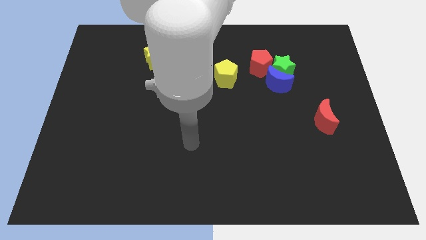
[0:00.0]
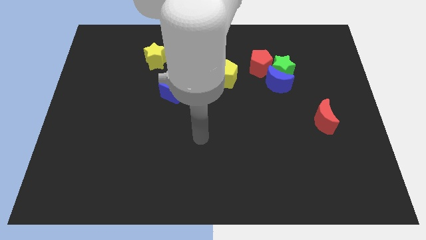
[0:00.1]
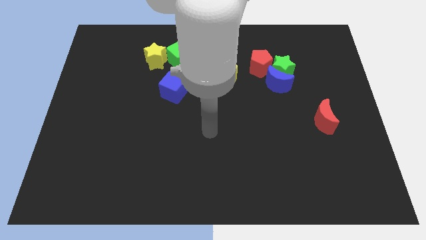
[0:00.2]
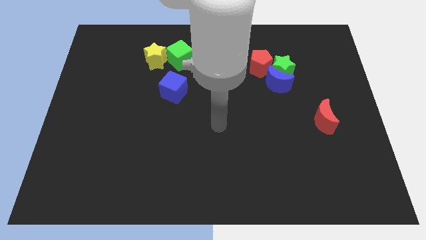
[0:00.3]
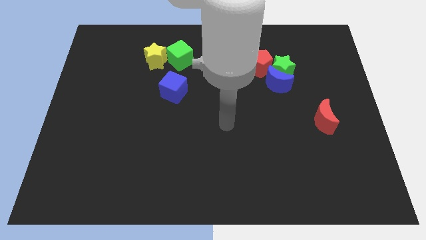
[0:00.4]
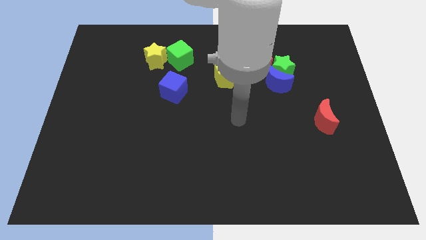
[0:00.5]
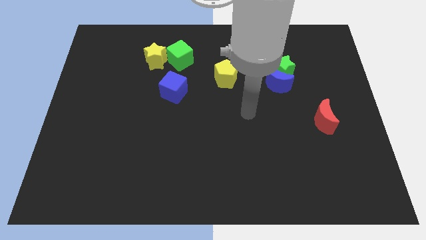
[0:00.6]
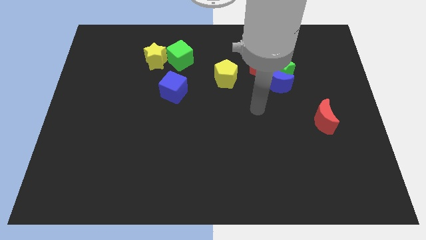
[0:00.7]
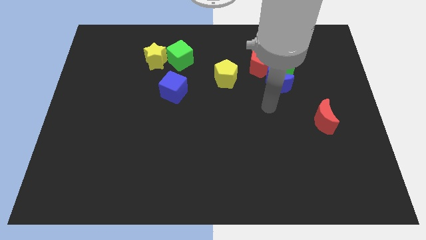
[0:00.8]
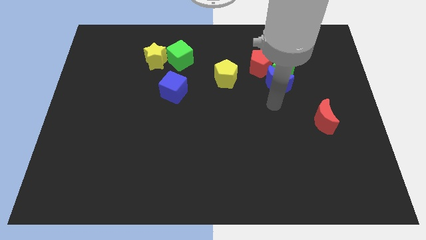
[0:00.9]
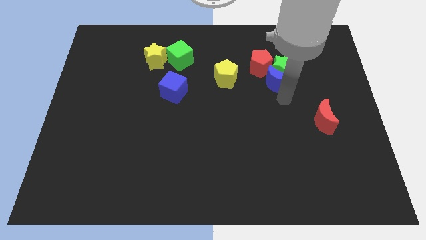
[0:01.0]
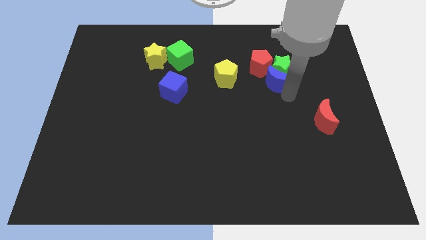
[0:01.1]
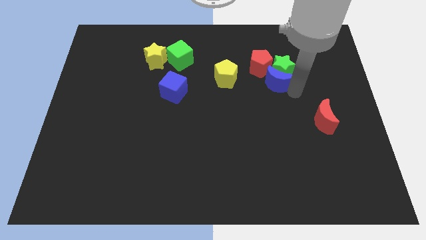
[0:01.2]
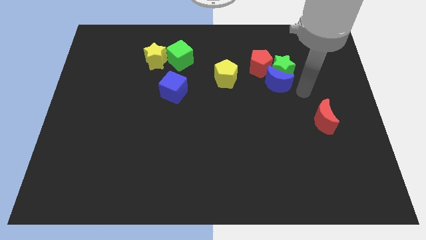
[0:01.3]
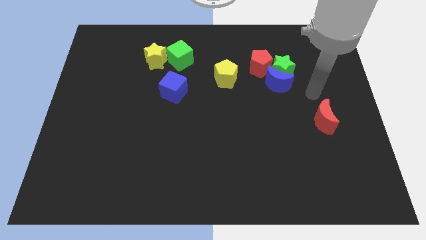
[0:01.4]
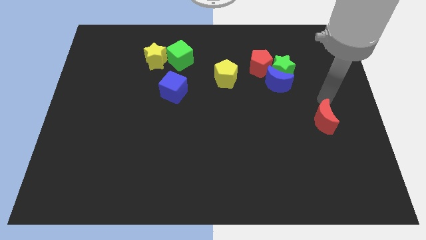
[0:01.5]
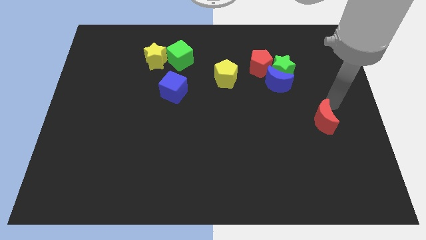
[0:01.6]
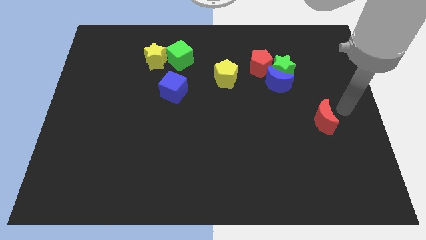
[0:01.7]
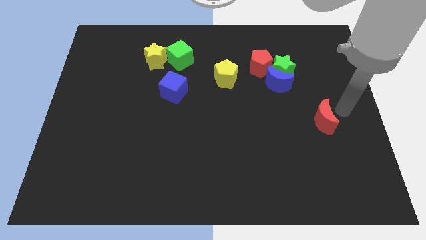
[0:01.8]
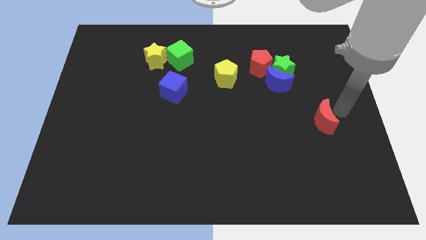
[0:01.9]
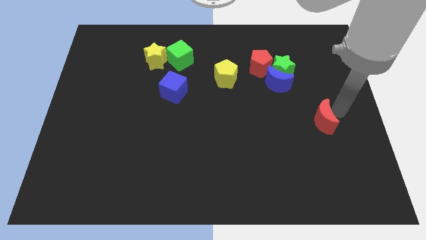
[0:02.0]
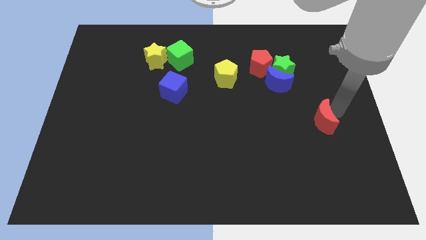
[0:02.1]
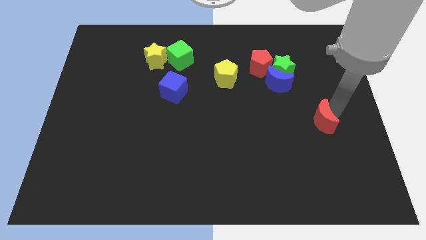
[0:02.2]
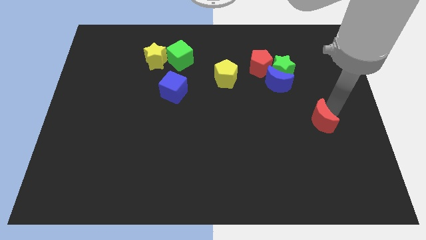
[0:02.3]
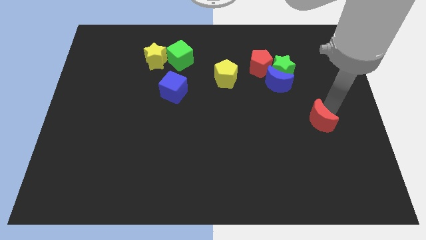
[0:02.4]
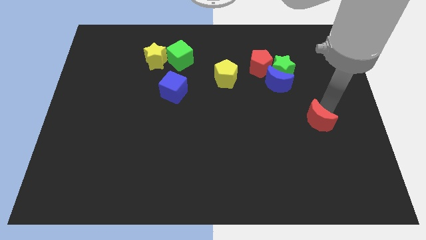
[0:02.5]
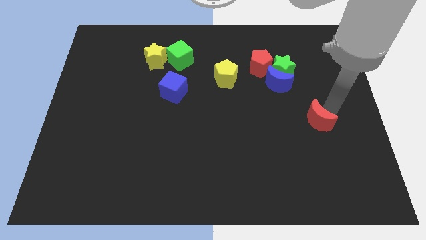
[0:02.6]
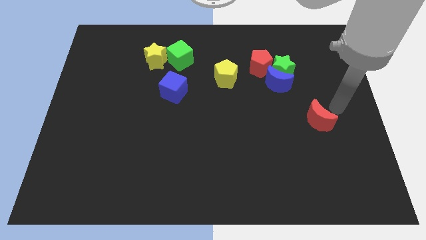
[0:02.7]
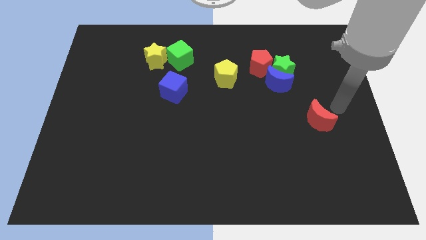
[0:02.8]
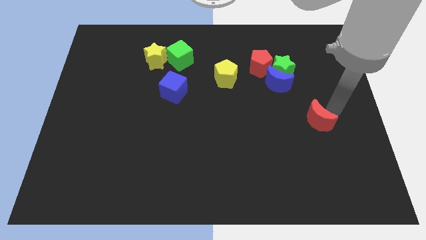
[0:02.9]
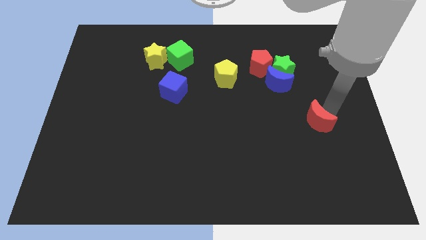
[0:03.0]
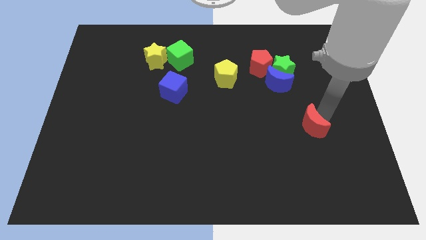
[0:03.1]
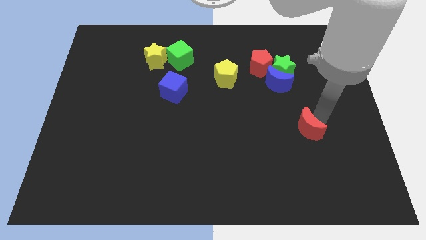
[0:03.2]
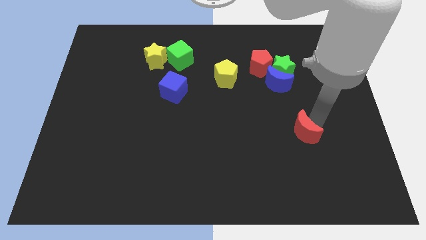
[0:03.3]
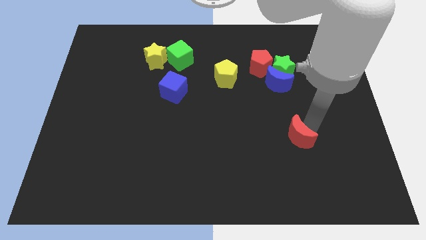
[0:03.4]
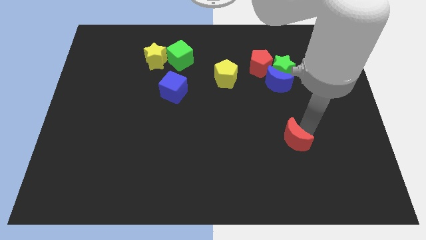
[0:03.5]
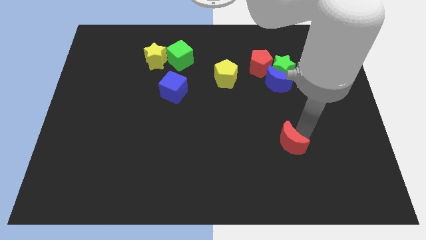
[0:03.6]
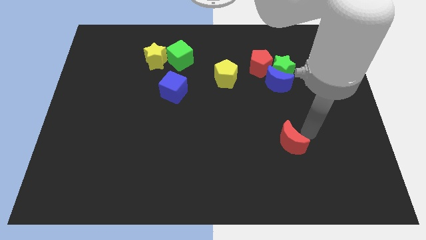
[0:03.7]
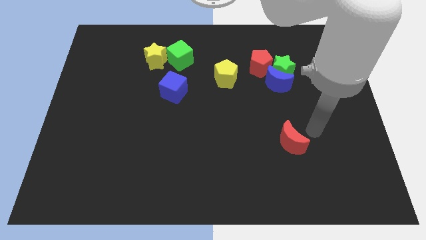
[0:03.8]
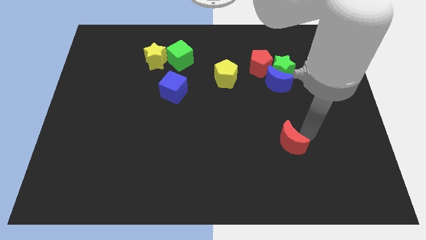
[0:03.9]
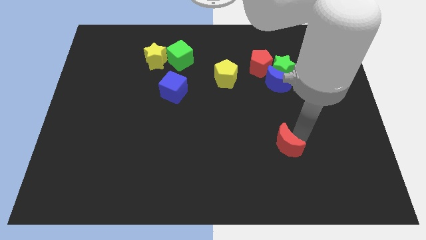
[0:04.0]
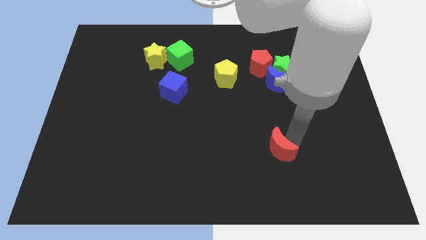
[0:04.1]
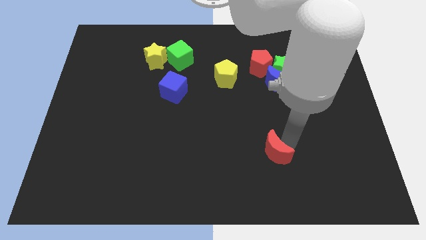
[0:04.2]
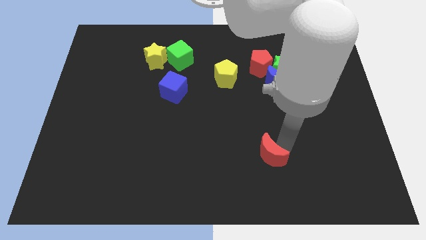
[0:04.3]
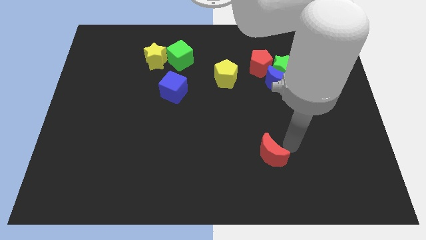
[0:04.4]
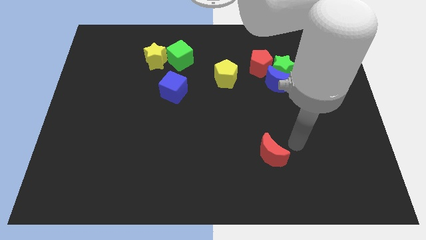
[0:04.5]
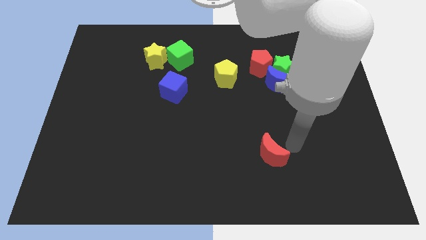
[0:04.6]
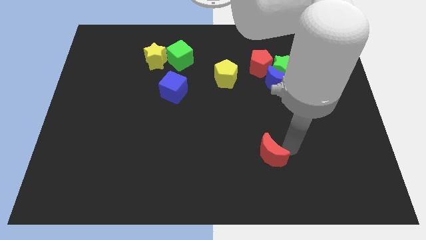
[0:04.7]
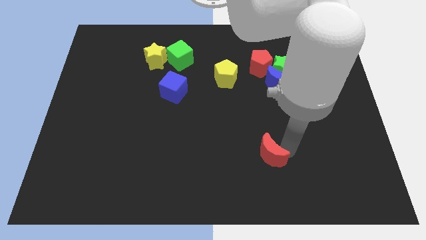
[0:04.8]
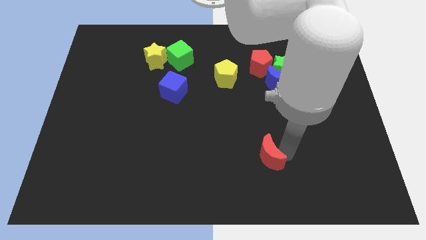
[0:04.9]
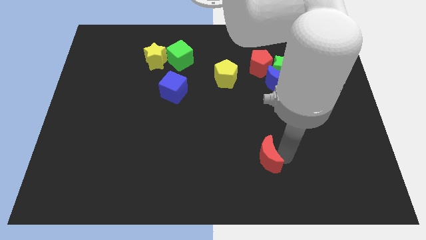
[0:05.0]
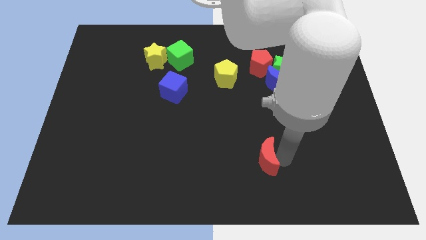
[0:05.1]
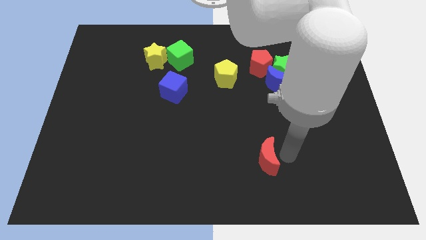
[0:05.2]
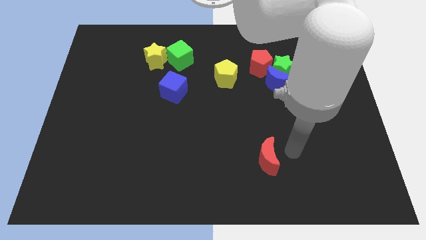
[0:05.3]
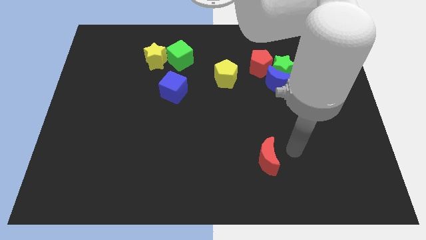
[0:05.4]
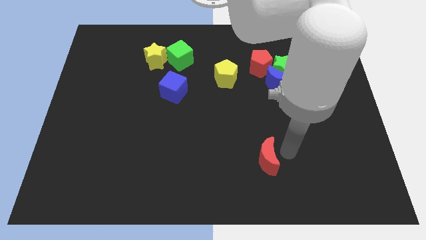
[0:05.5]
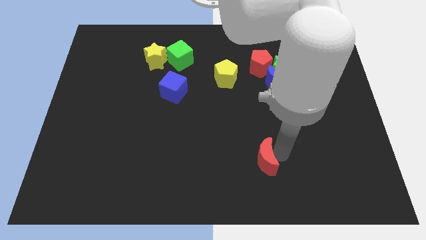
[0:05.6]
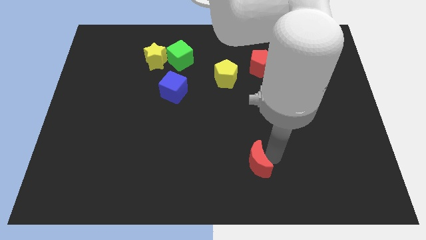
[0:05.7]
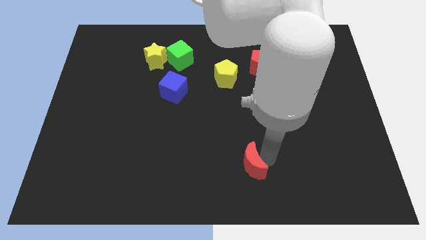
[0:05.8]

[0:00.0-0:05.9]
put the red moon to the bottom

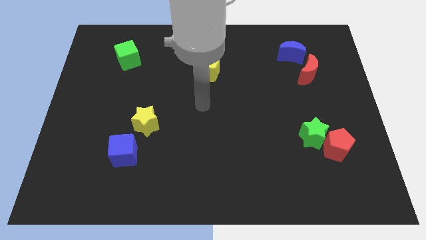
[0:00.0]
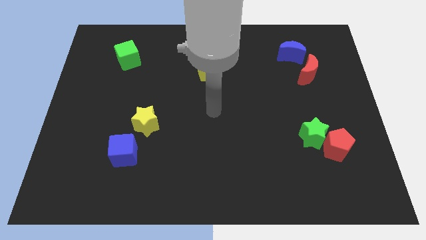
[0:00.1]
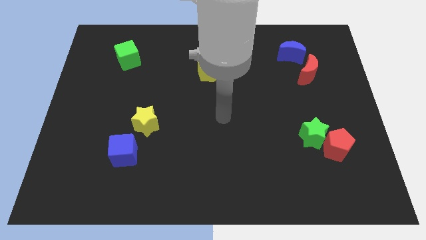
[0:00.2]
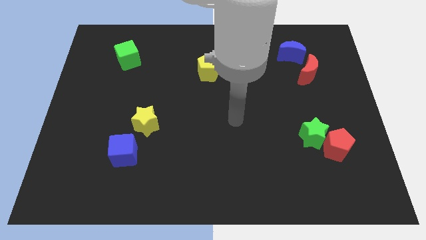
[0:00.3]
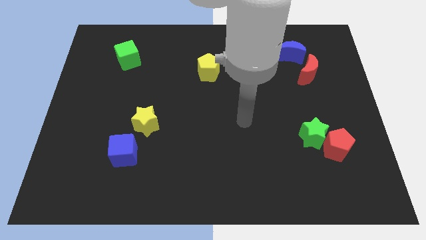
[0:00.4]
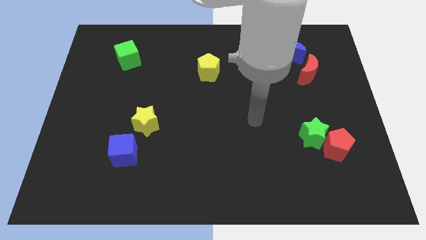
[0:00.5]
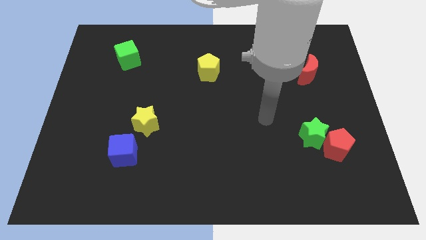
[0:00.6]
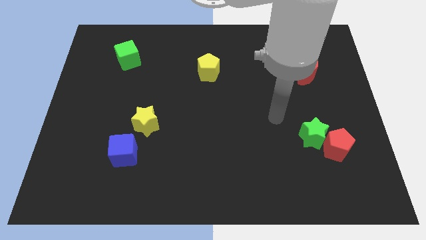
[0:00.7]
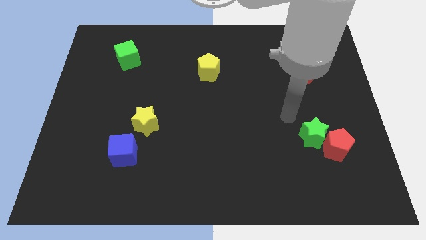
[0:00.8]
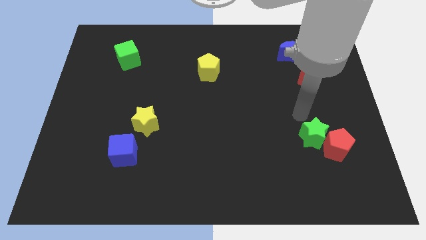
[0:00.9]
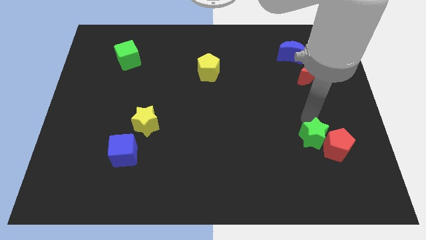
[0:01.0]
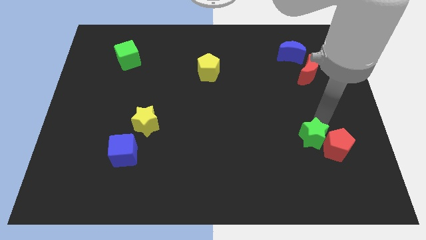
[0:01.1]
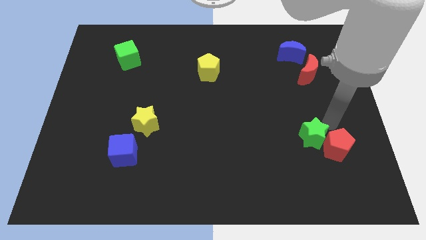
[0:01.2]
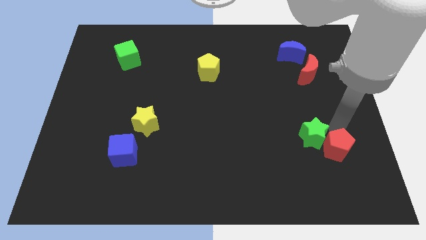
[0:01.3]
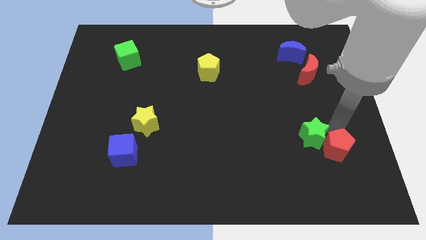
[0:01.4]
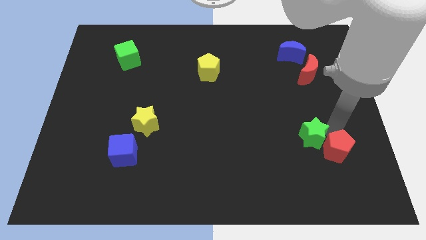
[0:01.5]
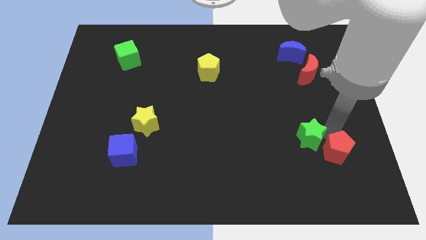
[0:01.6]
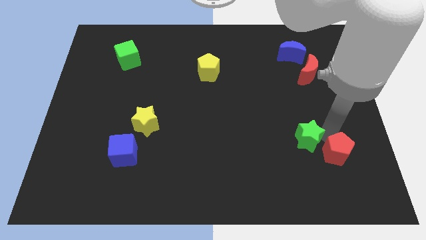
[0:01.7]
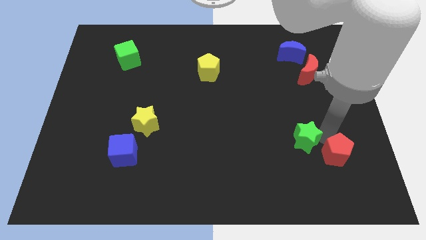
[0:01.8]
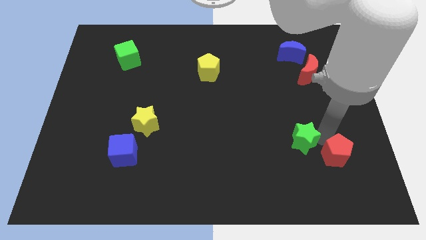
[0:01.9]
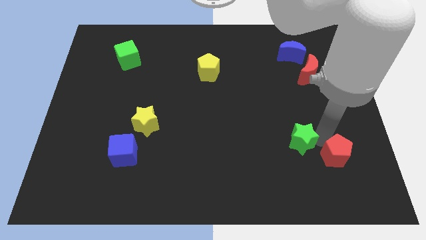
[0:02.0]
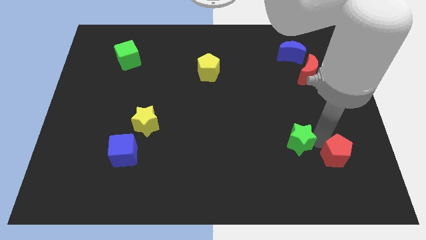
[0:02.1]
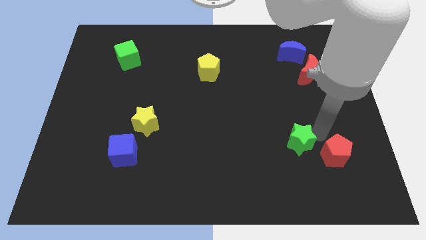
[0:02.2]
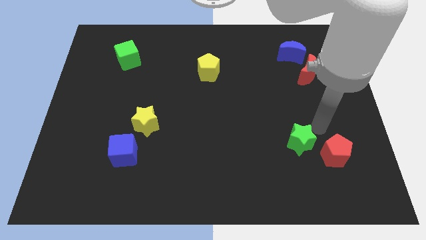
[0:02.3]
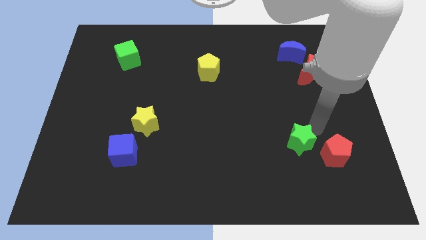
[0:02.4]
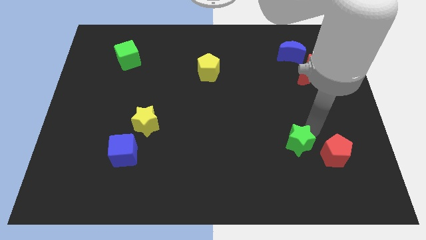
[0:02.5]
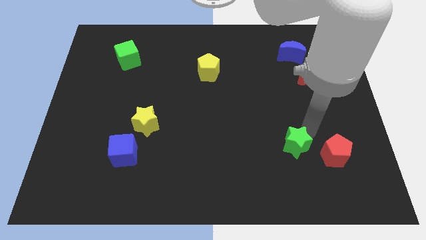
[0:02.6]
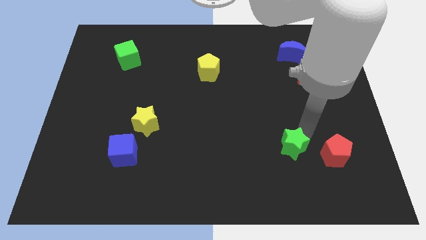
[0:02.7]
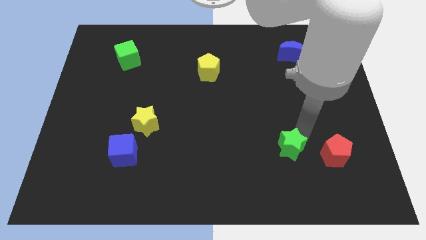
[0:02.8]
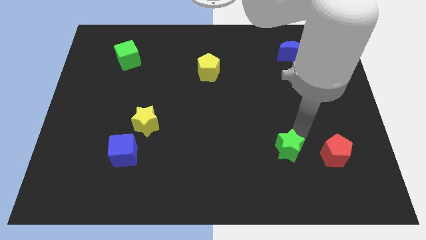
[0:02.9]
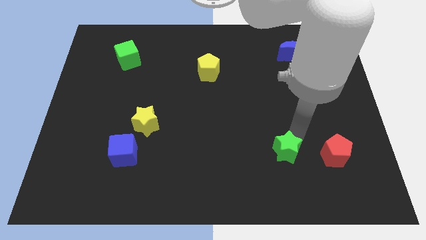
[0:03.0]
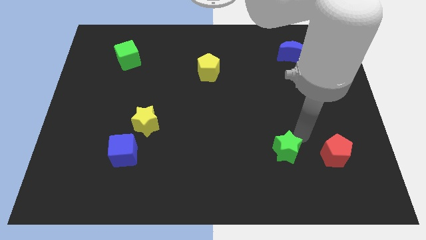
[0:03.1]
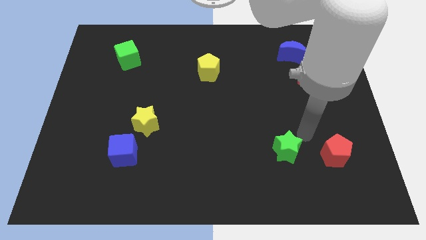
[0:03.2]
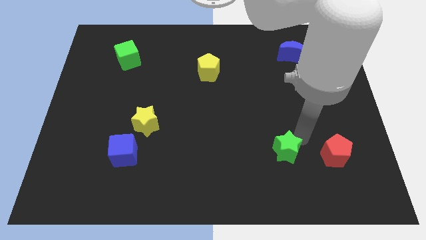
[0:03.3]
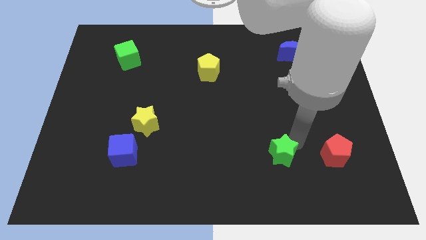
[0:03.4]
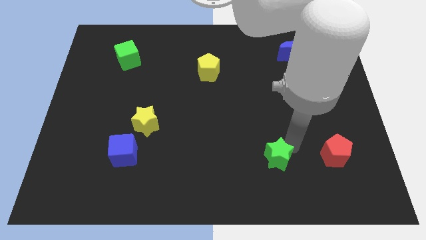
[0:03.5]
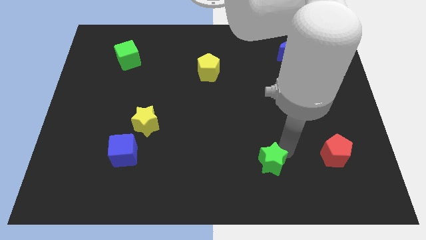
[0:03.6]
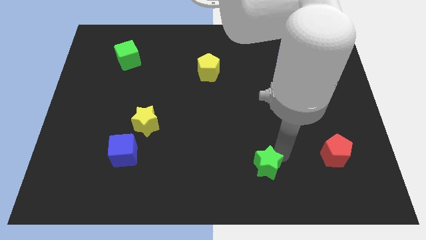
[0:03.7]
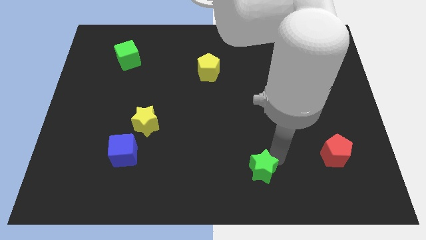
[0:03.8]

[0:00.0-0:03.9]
push the green star to the bottom side
